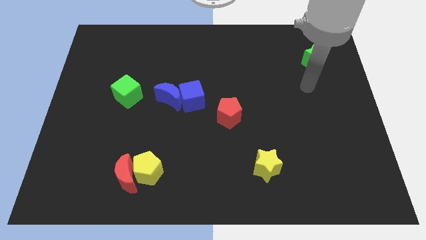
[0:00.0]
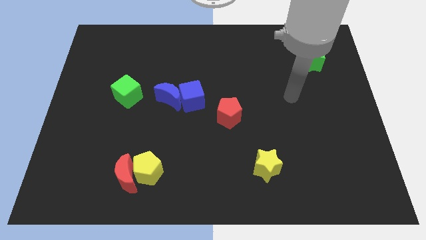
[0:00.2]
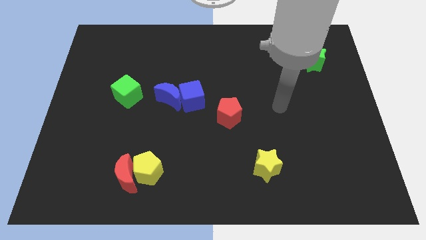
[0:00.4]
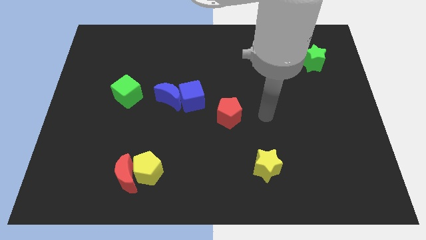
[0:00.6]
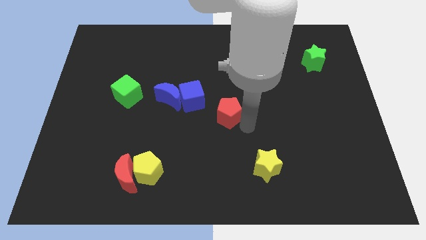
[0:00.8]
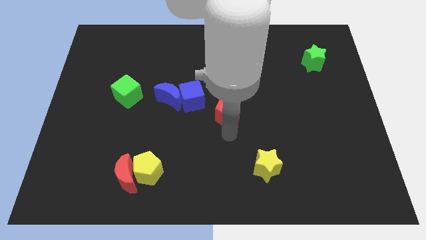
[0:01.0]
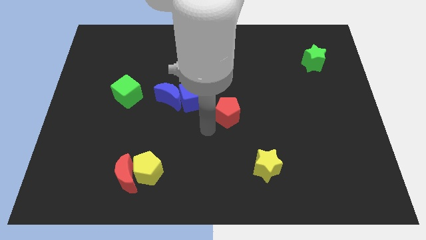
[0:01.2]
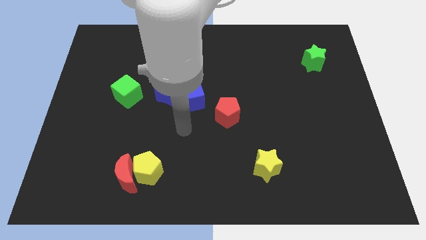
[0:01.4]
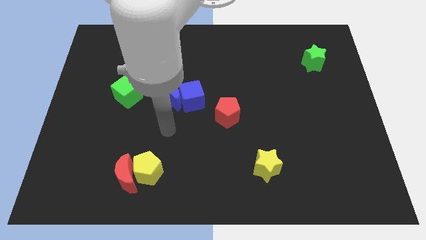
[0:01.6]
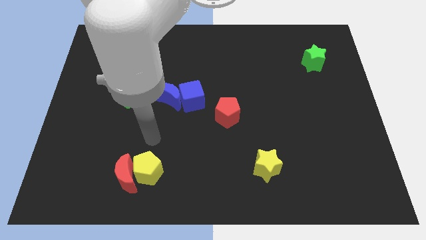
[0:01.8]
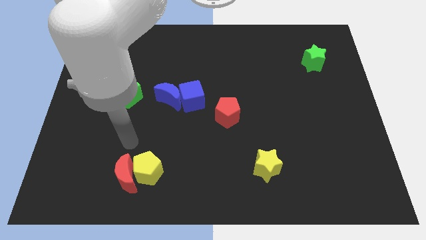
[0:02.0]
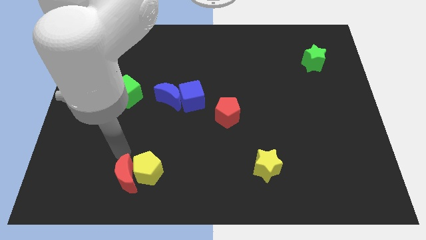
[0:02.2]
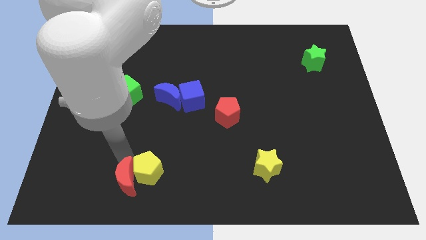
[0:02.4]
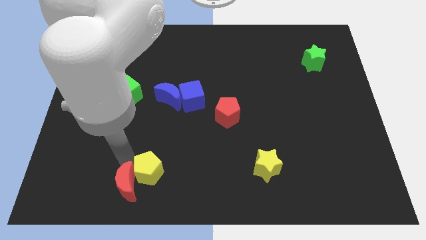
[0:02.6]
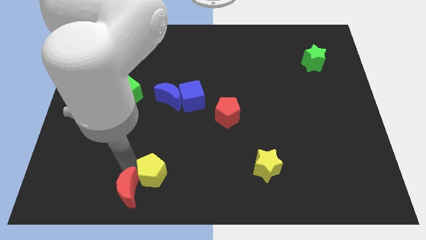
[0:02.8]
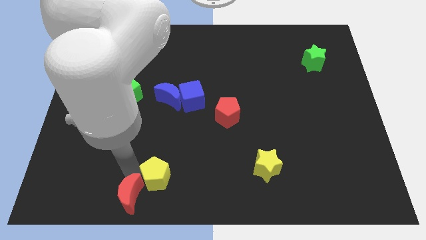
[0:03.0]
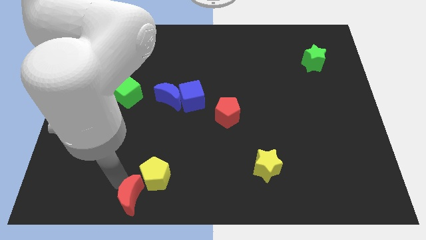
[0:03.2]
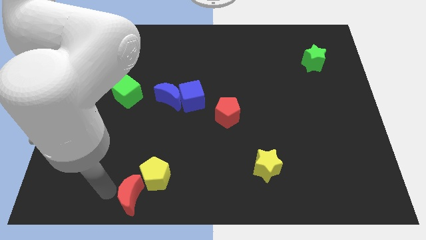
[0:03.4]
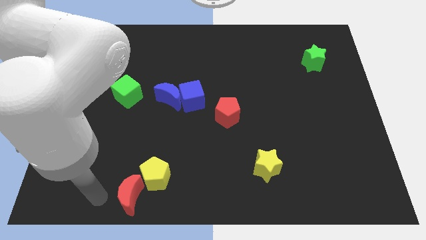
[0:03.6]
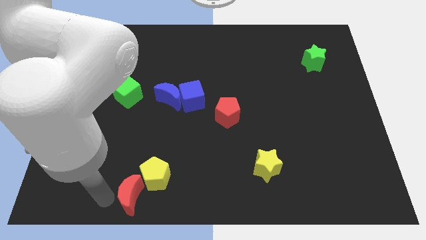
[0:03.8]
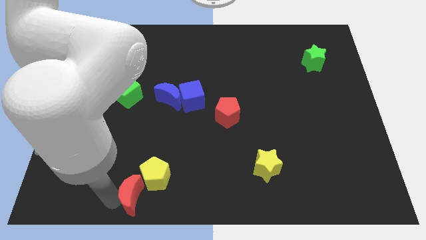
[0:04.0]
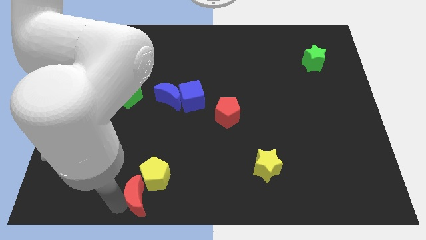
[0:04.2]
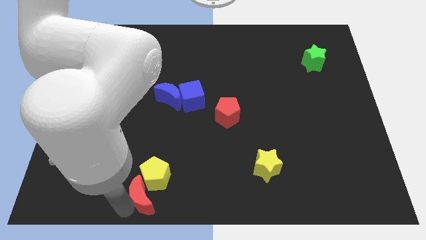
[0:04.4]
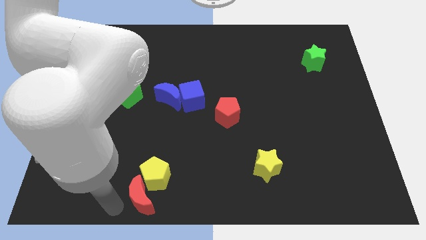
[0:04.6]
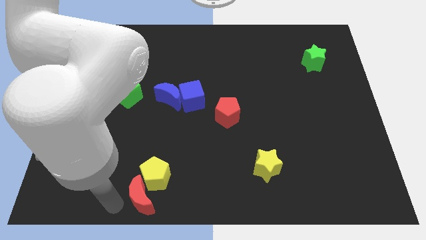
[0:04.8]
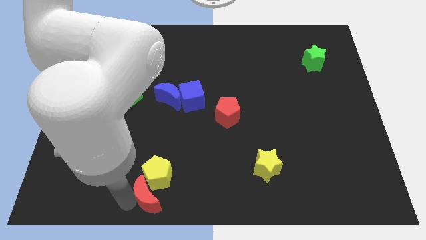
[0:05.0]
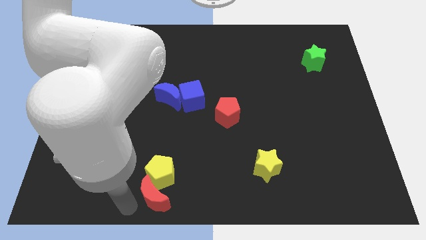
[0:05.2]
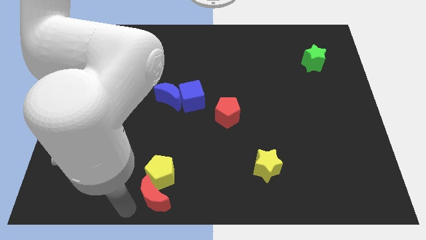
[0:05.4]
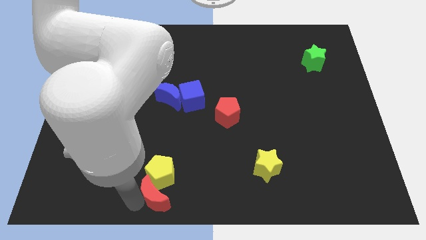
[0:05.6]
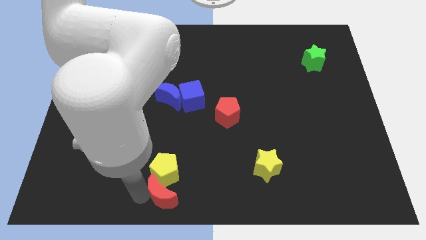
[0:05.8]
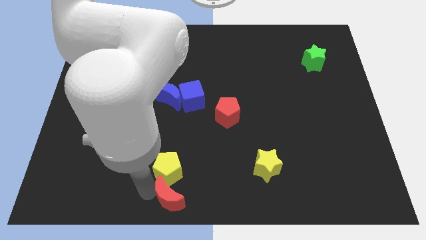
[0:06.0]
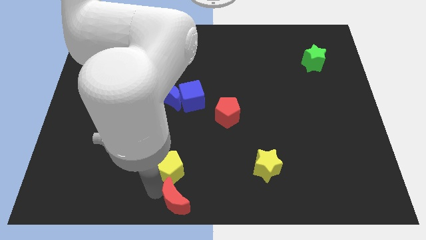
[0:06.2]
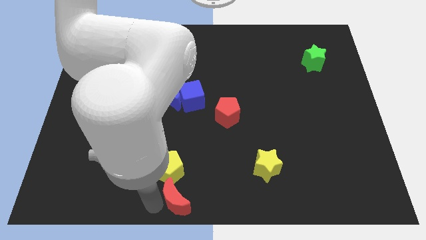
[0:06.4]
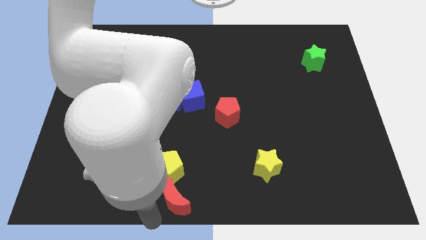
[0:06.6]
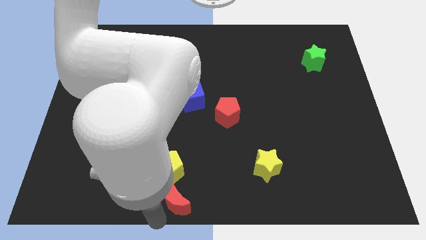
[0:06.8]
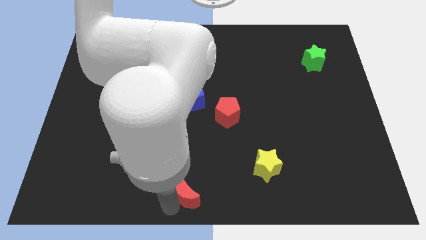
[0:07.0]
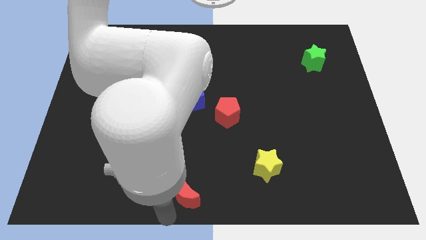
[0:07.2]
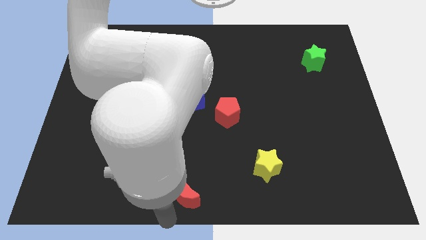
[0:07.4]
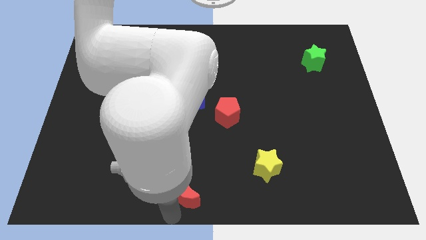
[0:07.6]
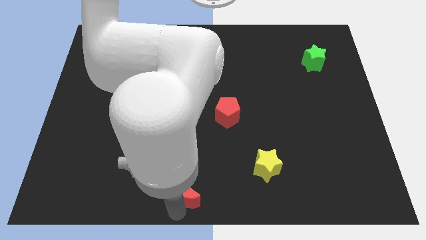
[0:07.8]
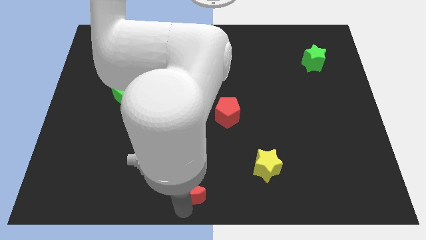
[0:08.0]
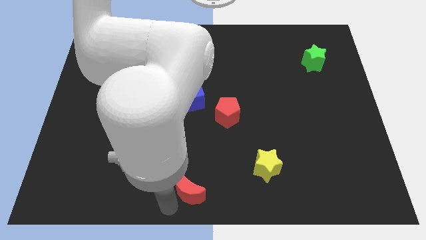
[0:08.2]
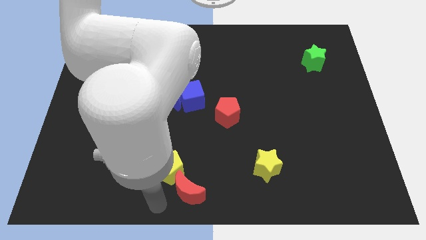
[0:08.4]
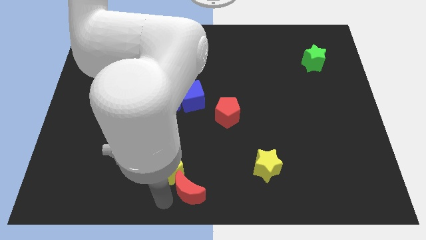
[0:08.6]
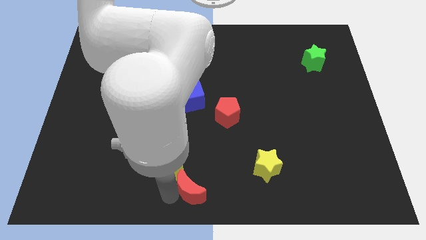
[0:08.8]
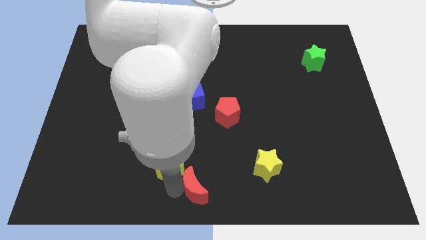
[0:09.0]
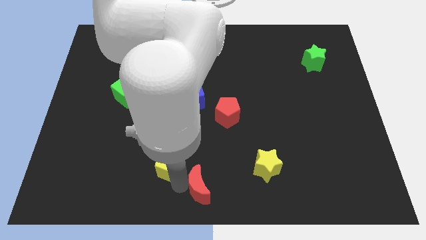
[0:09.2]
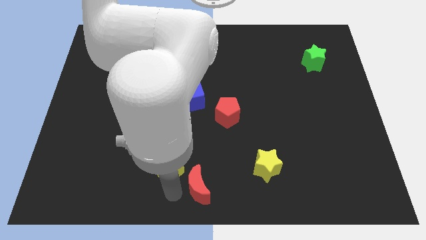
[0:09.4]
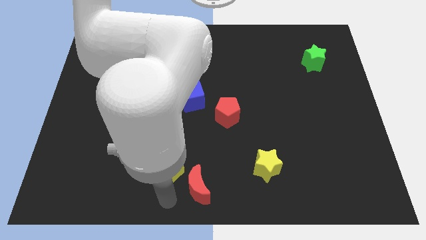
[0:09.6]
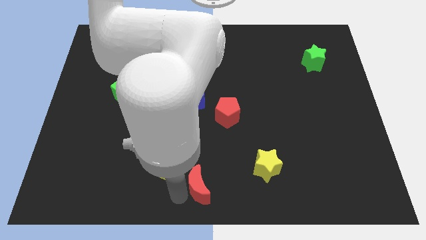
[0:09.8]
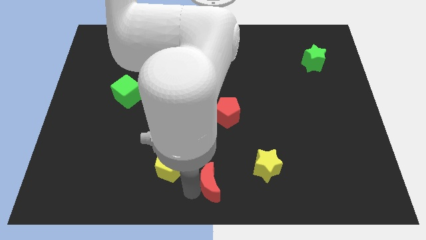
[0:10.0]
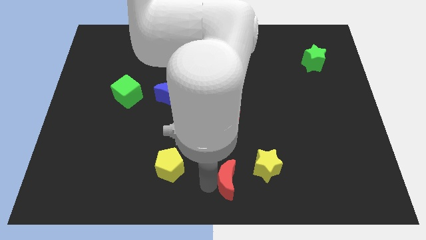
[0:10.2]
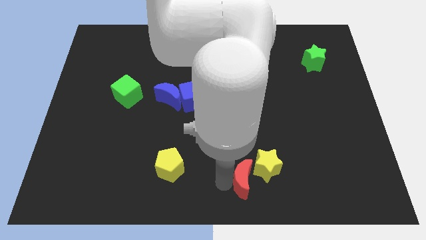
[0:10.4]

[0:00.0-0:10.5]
move the red moon towards the yellow star

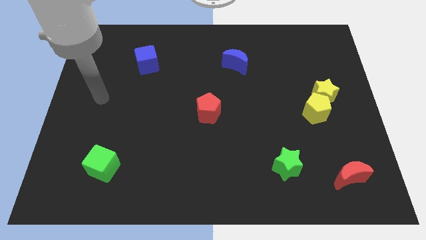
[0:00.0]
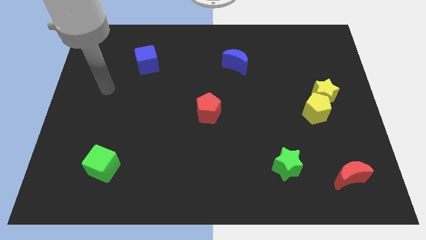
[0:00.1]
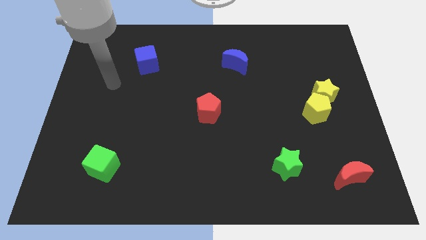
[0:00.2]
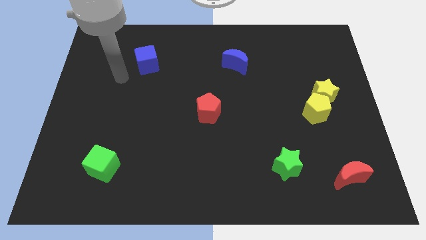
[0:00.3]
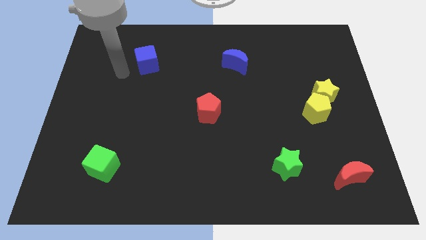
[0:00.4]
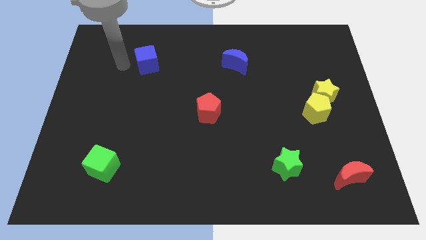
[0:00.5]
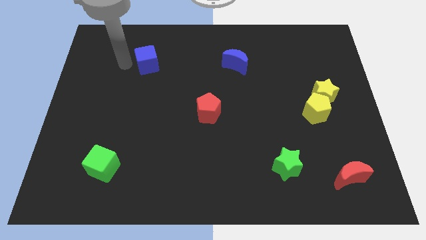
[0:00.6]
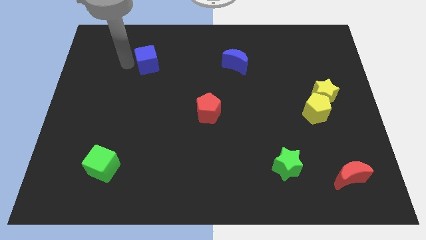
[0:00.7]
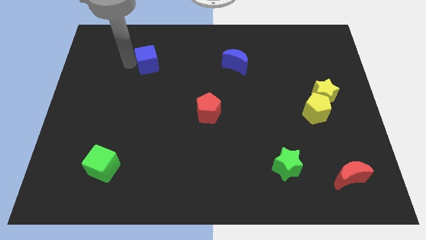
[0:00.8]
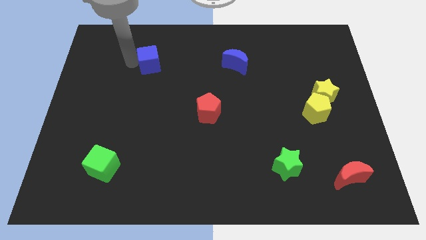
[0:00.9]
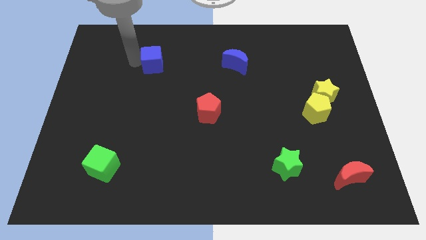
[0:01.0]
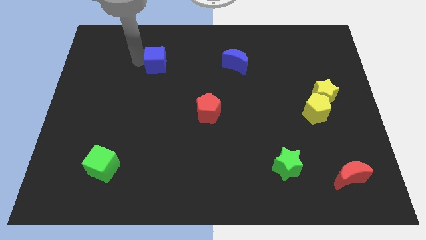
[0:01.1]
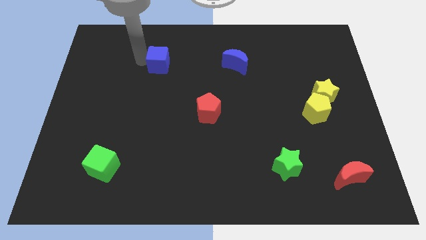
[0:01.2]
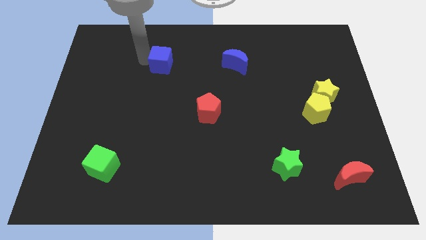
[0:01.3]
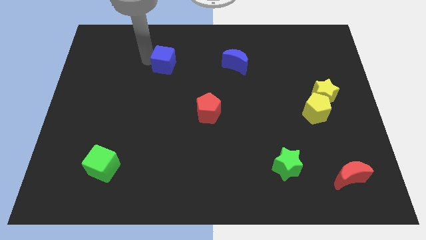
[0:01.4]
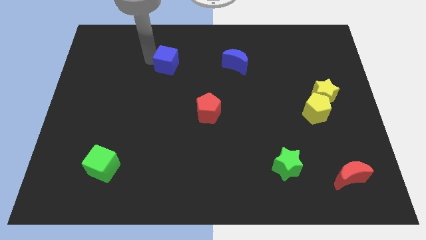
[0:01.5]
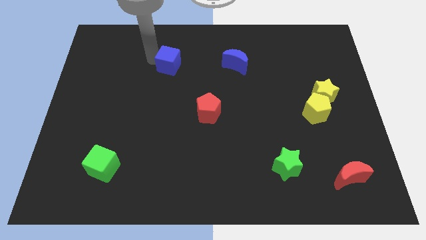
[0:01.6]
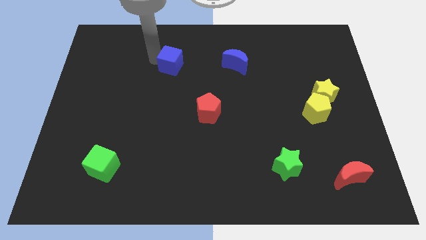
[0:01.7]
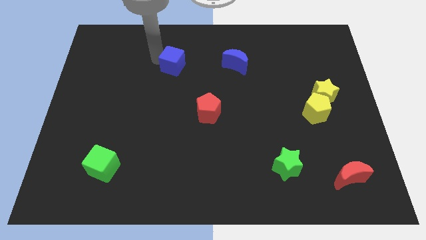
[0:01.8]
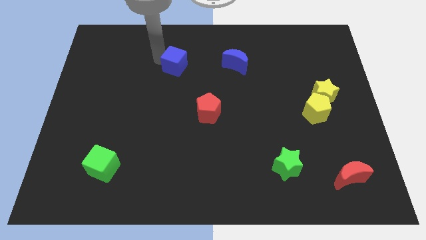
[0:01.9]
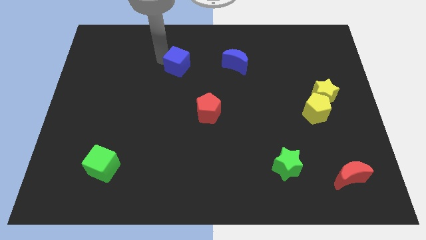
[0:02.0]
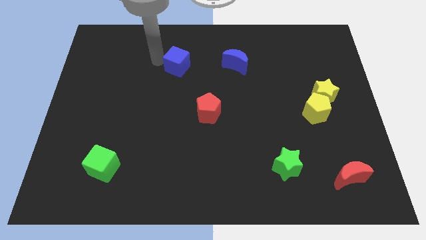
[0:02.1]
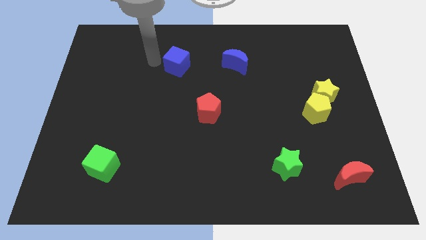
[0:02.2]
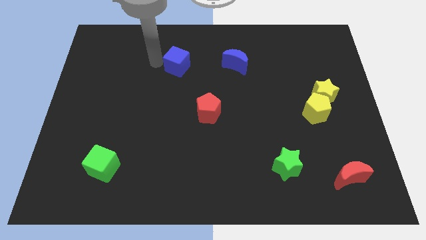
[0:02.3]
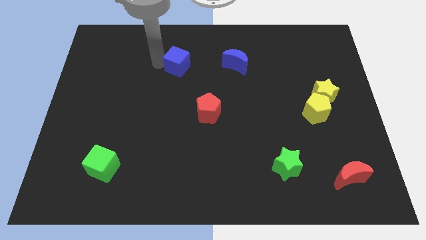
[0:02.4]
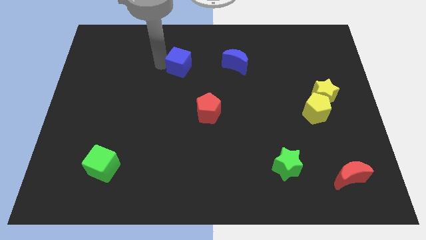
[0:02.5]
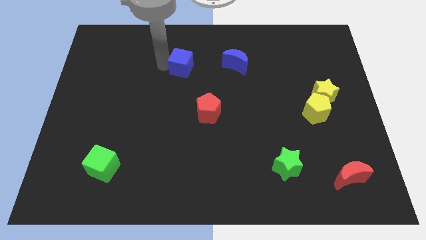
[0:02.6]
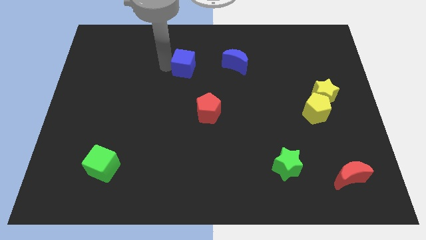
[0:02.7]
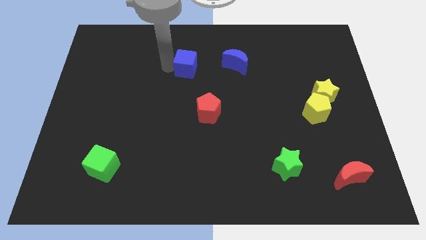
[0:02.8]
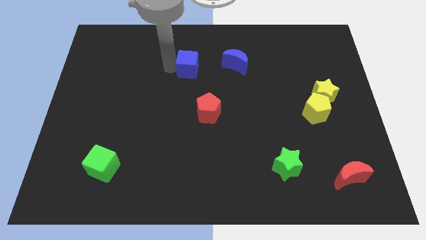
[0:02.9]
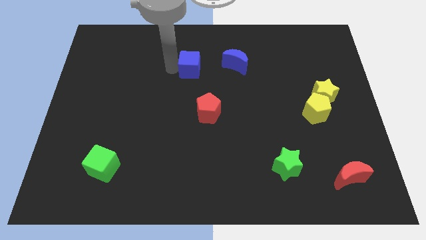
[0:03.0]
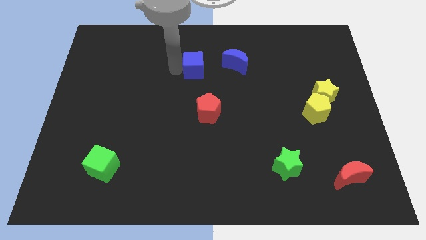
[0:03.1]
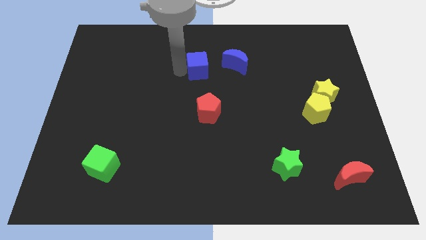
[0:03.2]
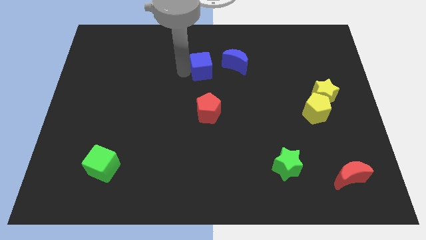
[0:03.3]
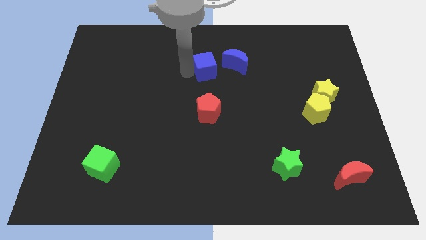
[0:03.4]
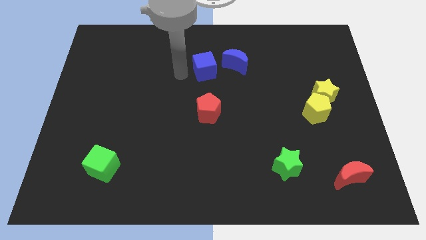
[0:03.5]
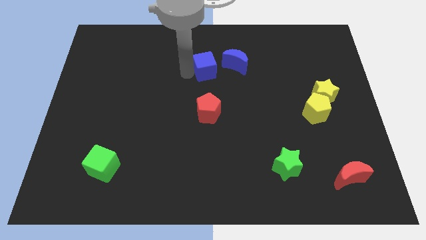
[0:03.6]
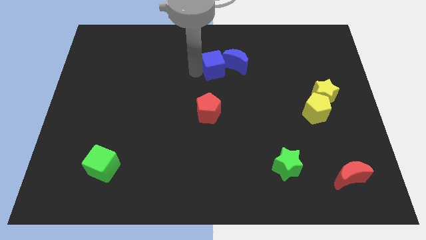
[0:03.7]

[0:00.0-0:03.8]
put the blue cube to the blue moon
